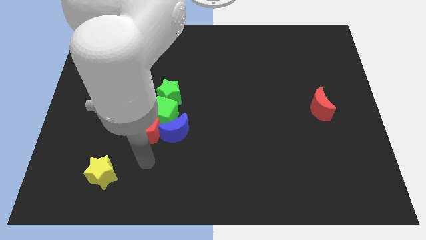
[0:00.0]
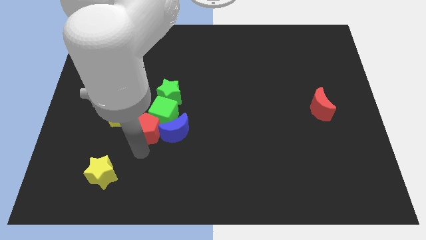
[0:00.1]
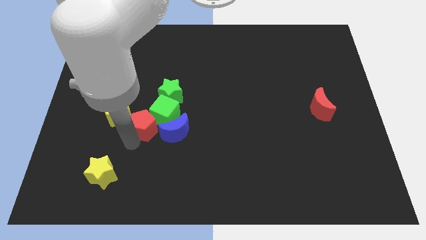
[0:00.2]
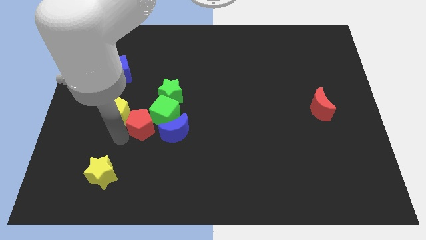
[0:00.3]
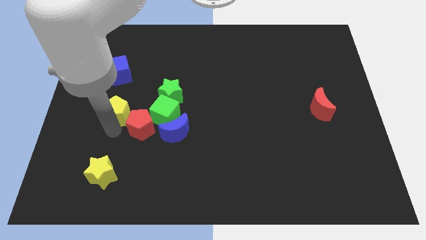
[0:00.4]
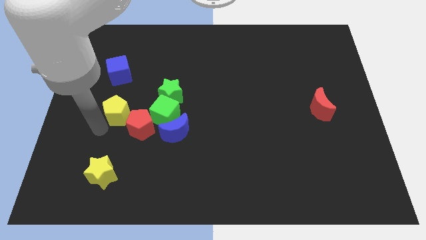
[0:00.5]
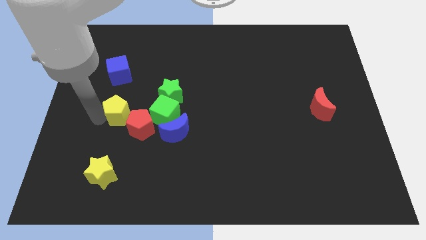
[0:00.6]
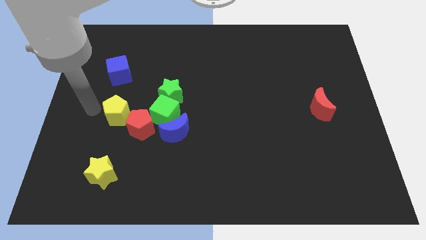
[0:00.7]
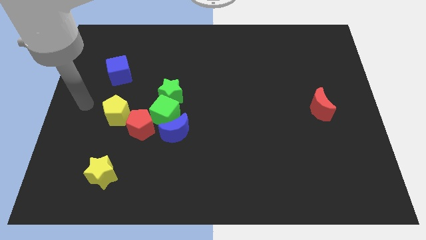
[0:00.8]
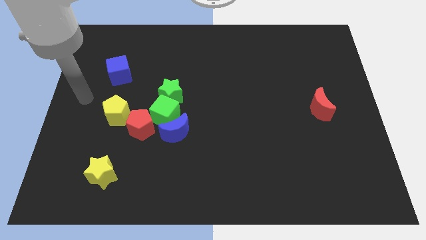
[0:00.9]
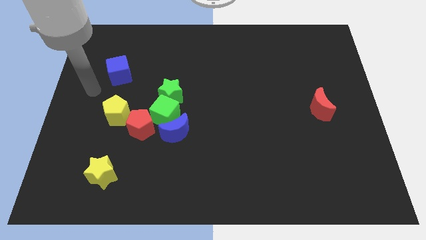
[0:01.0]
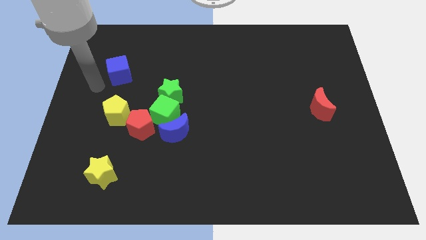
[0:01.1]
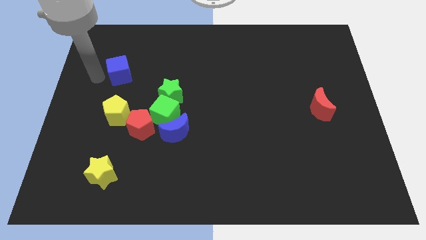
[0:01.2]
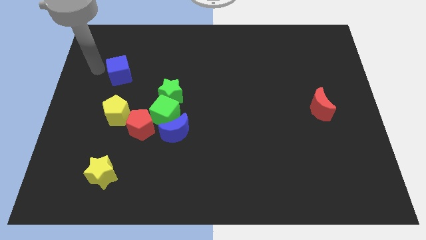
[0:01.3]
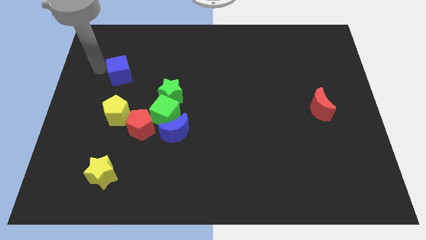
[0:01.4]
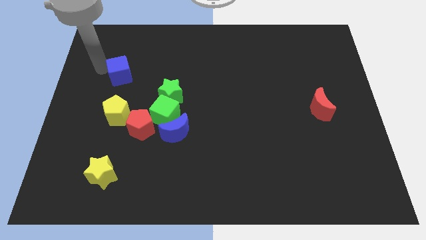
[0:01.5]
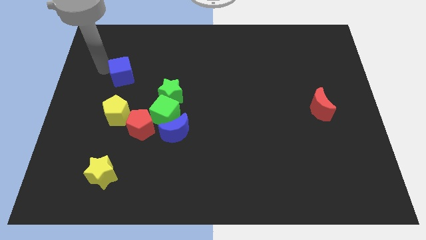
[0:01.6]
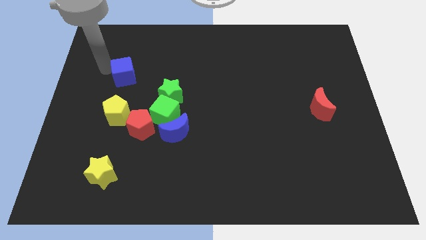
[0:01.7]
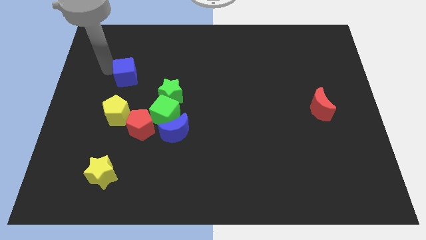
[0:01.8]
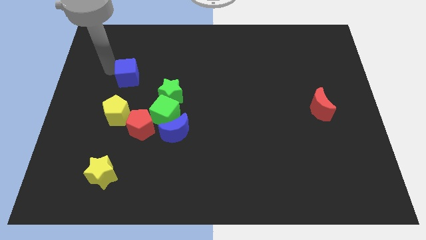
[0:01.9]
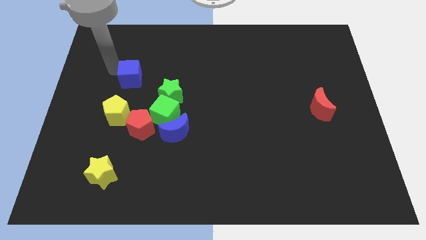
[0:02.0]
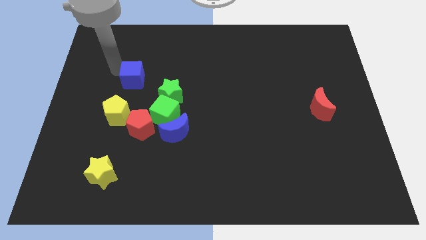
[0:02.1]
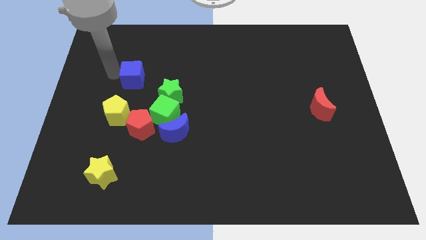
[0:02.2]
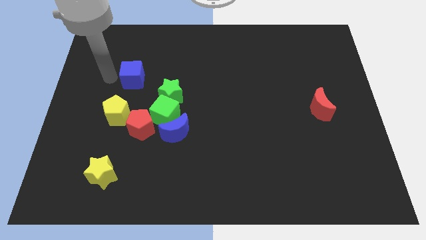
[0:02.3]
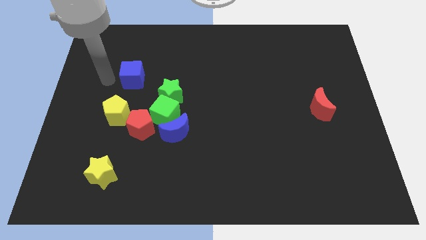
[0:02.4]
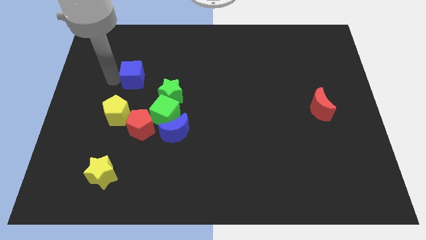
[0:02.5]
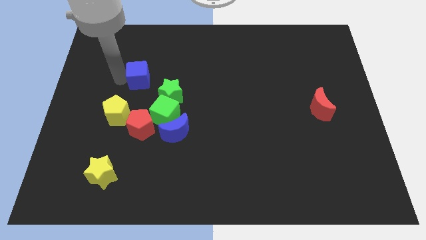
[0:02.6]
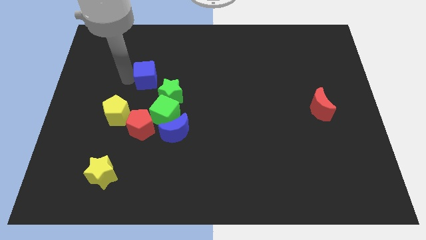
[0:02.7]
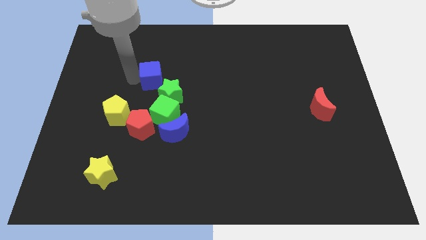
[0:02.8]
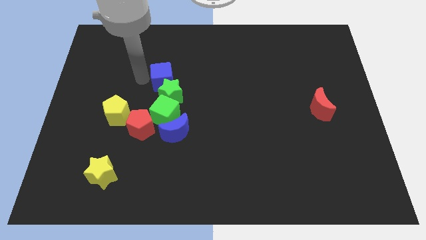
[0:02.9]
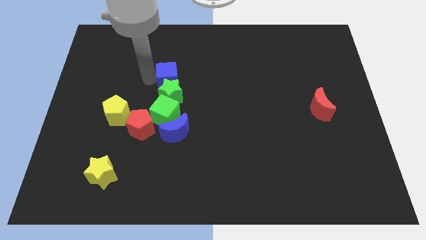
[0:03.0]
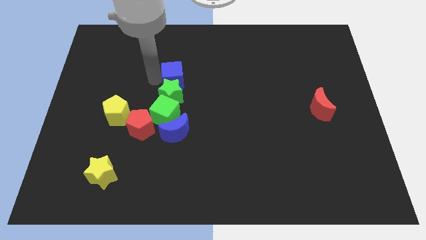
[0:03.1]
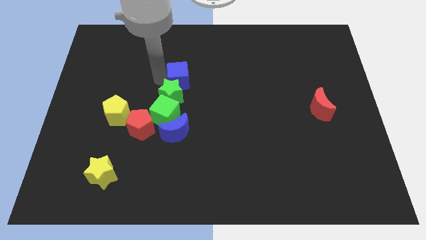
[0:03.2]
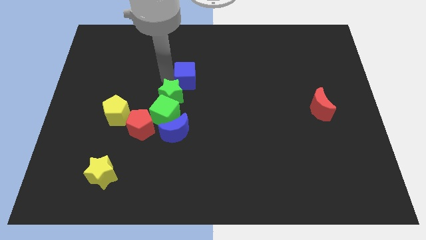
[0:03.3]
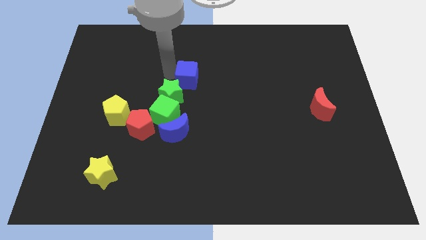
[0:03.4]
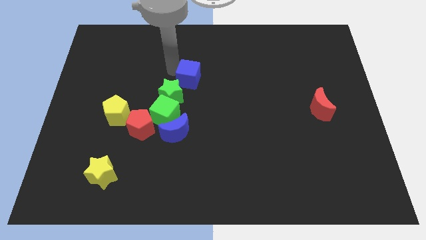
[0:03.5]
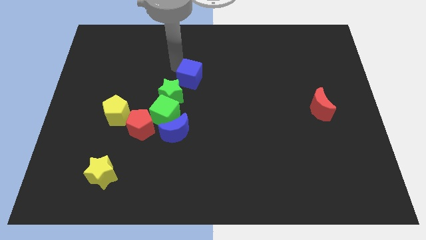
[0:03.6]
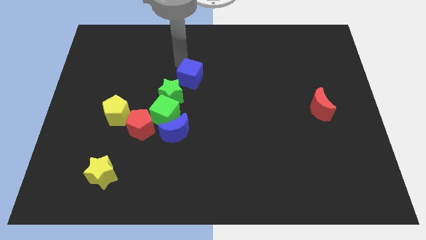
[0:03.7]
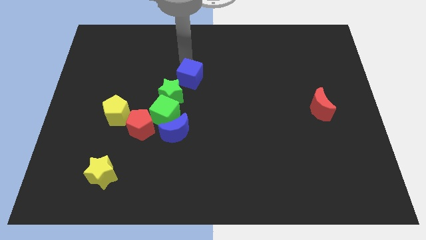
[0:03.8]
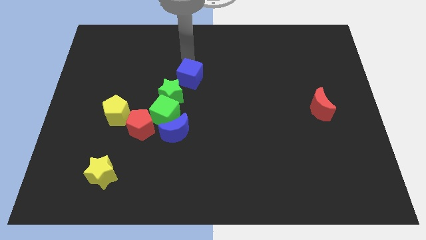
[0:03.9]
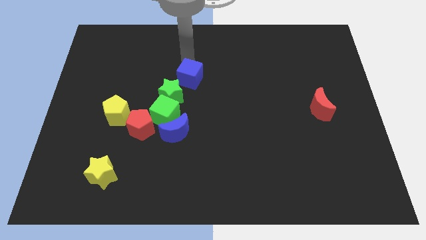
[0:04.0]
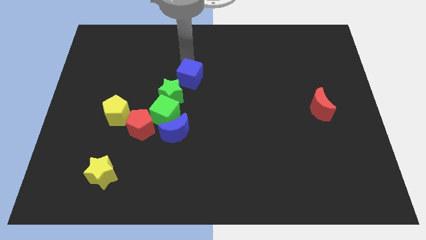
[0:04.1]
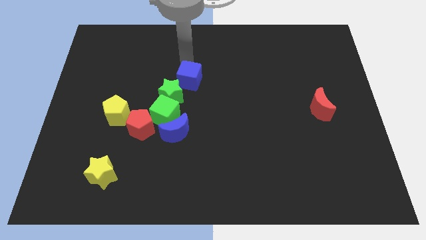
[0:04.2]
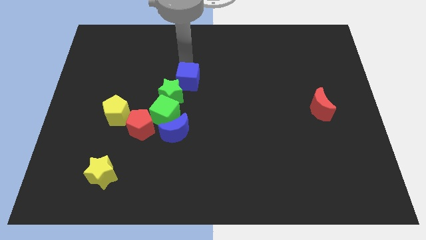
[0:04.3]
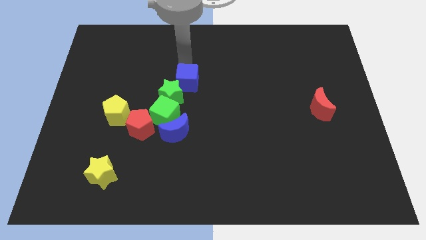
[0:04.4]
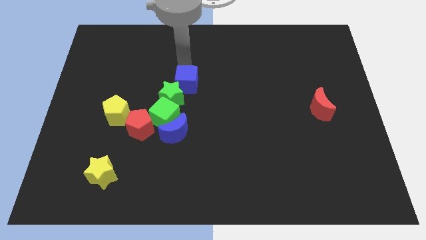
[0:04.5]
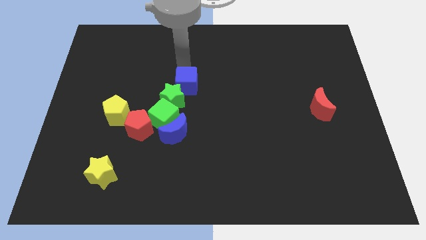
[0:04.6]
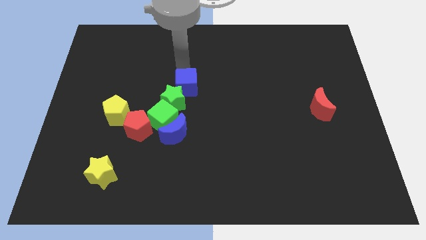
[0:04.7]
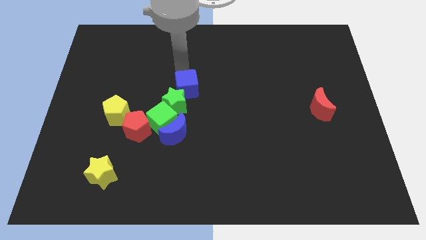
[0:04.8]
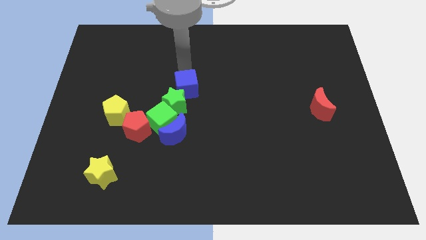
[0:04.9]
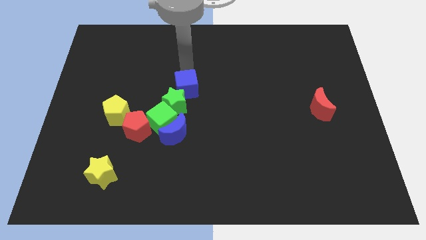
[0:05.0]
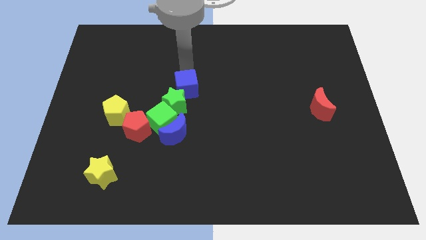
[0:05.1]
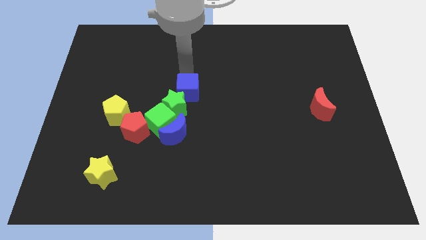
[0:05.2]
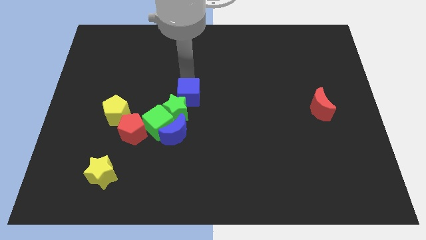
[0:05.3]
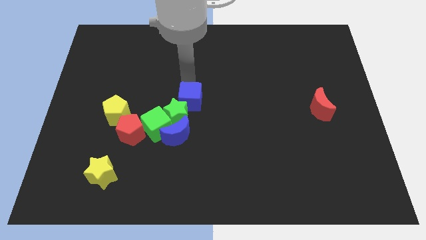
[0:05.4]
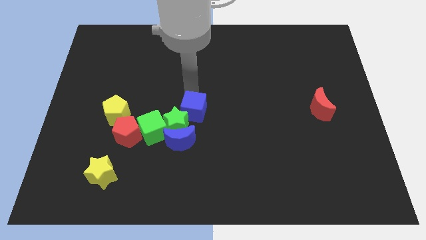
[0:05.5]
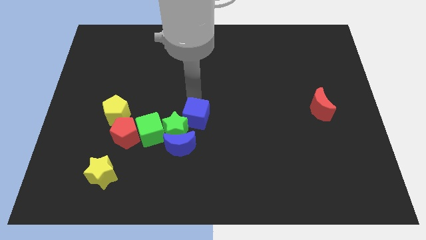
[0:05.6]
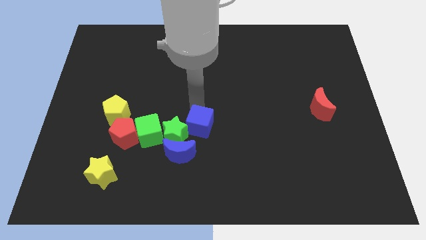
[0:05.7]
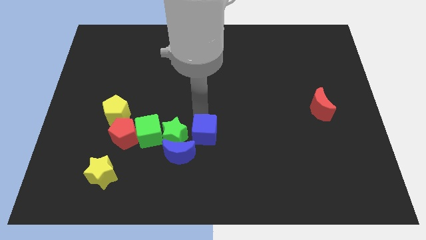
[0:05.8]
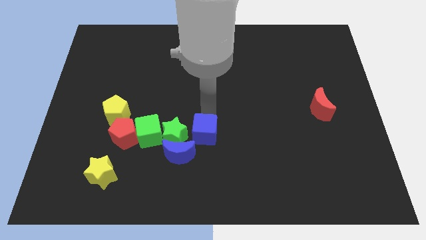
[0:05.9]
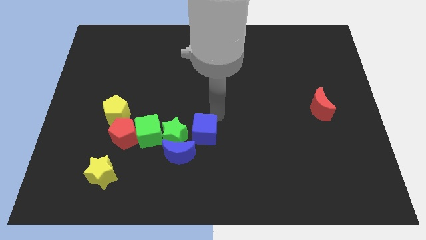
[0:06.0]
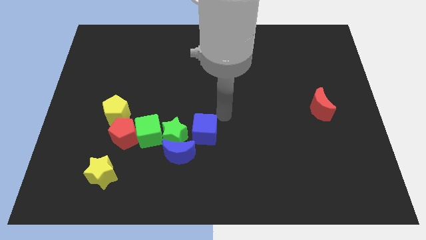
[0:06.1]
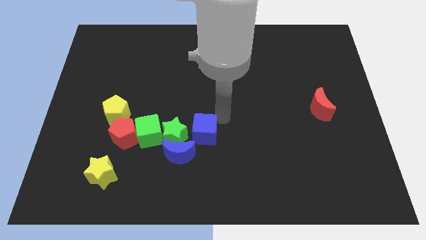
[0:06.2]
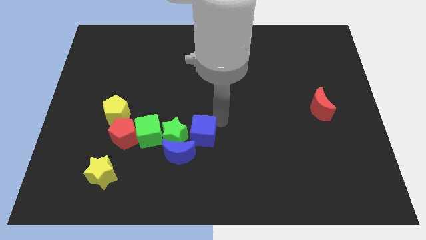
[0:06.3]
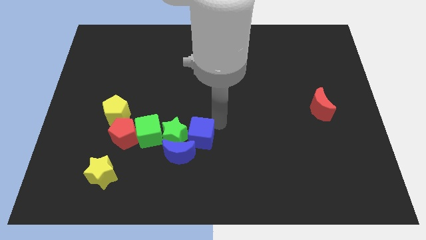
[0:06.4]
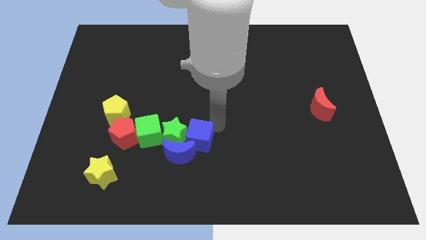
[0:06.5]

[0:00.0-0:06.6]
move the blue cube to the blue moon

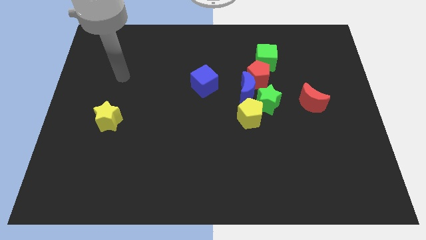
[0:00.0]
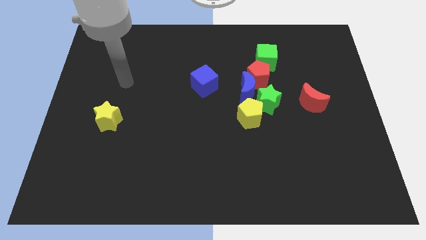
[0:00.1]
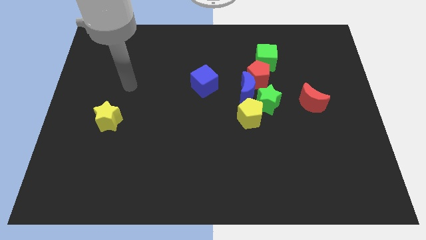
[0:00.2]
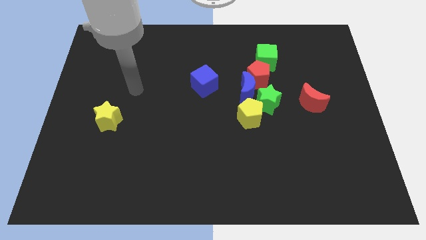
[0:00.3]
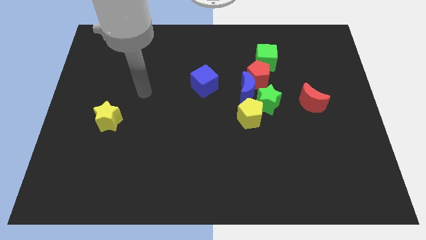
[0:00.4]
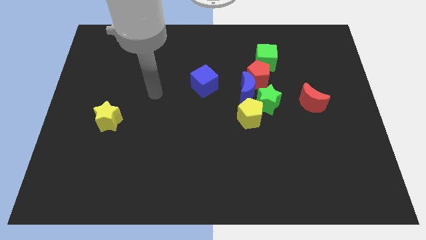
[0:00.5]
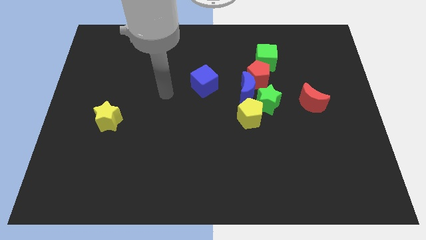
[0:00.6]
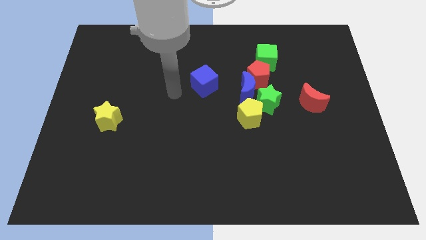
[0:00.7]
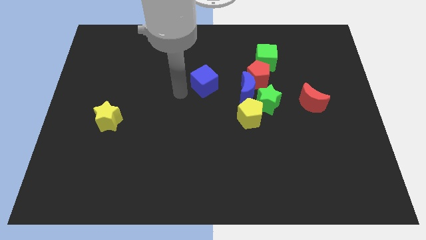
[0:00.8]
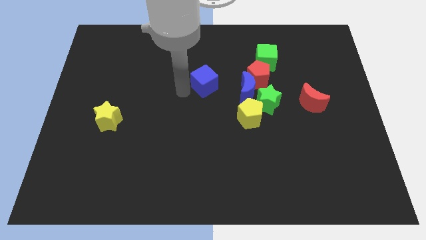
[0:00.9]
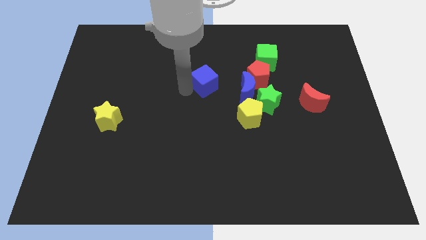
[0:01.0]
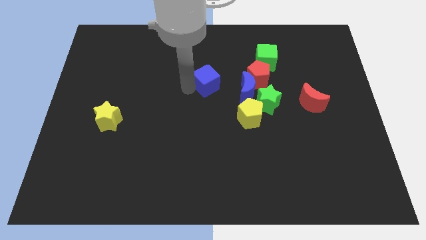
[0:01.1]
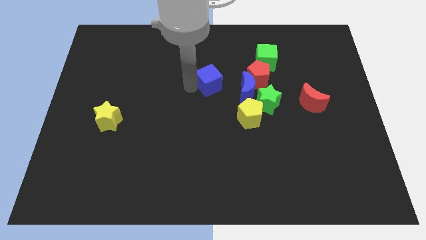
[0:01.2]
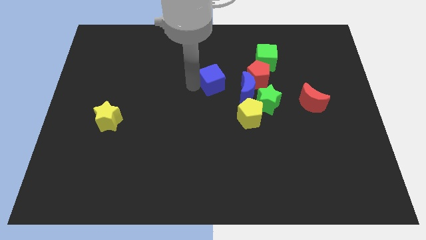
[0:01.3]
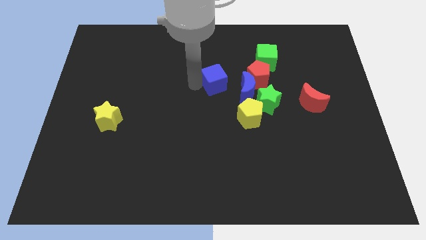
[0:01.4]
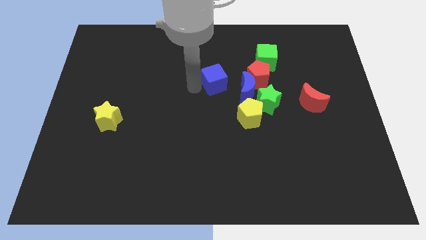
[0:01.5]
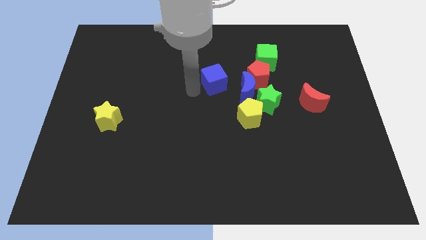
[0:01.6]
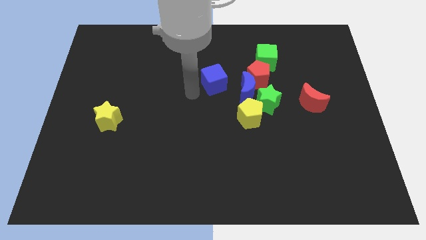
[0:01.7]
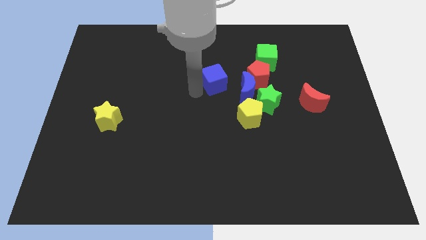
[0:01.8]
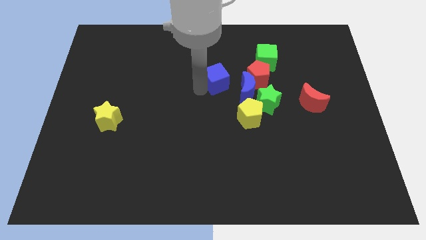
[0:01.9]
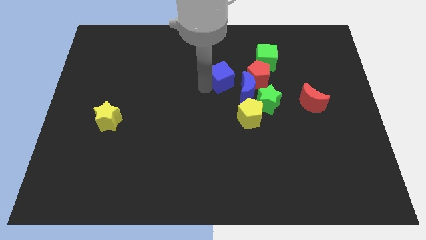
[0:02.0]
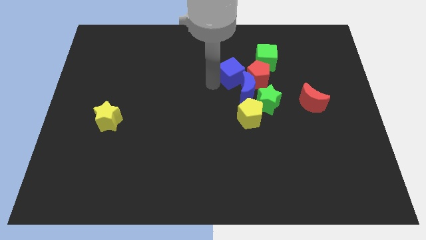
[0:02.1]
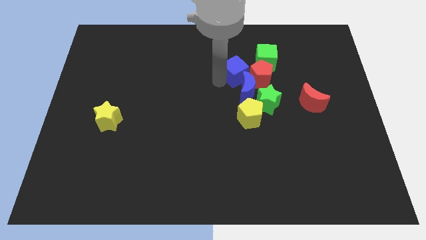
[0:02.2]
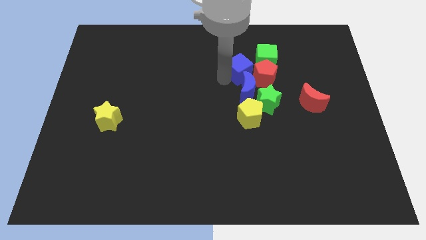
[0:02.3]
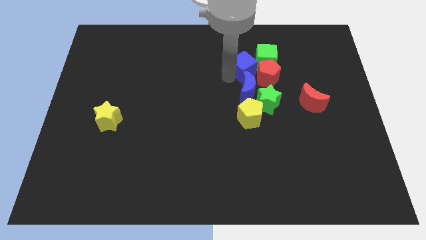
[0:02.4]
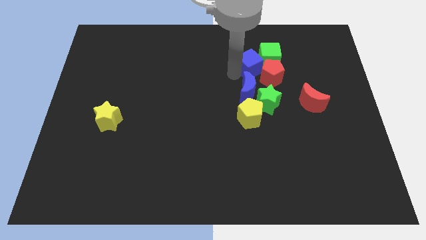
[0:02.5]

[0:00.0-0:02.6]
slide the blue cube next to the green cube
